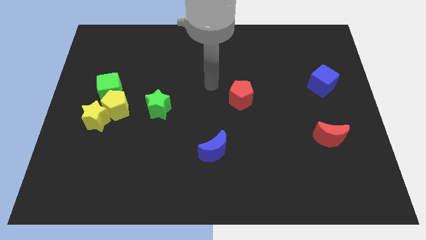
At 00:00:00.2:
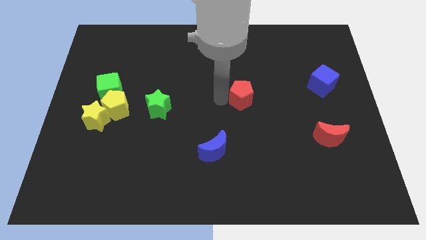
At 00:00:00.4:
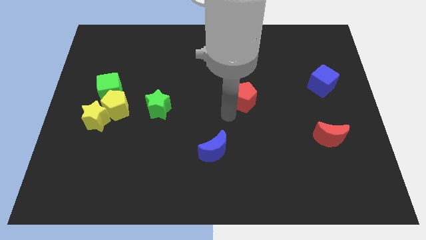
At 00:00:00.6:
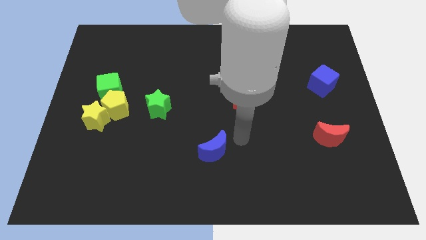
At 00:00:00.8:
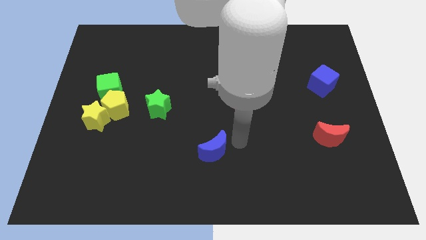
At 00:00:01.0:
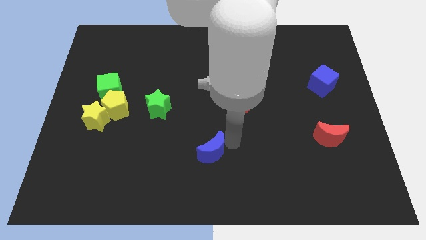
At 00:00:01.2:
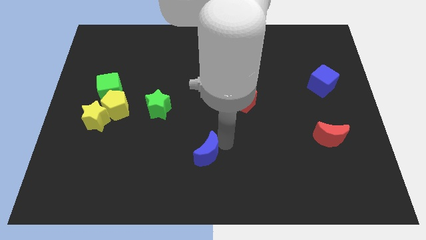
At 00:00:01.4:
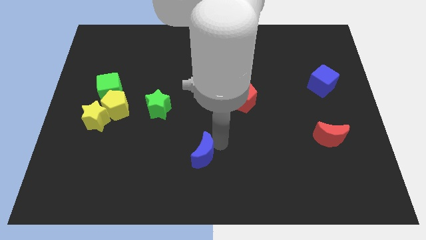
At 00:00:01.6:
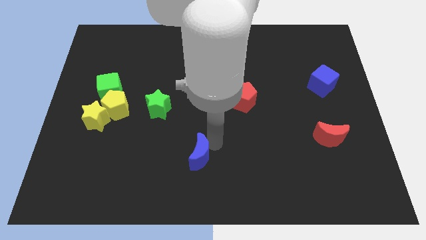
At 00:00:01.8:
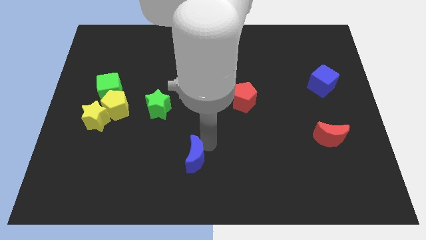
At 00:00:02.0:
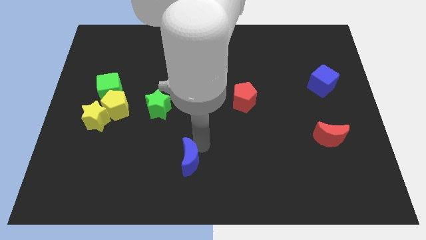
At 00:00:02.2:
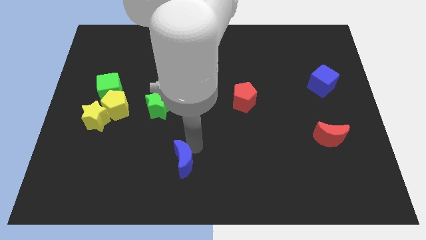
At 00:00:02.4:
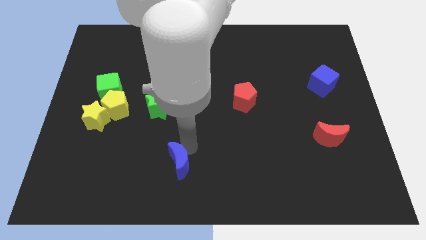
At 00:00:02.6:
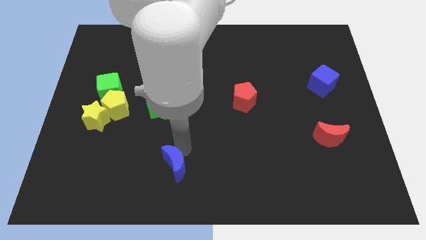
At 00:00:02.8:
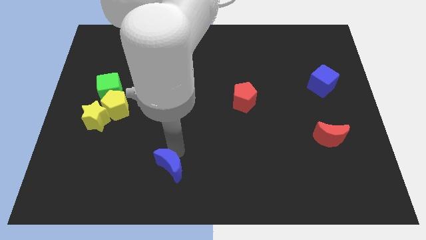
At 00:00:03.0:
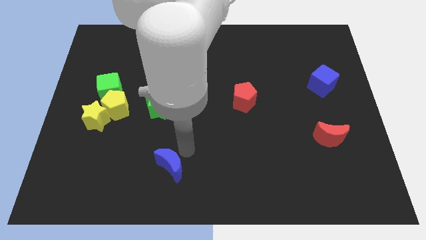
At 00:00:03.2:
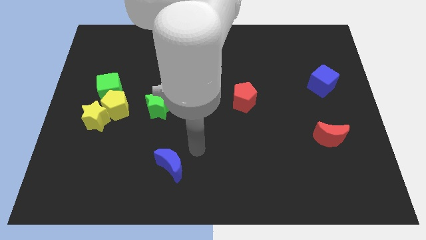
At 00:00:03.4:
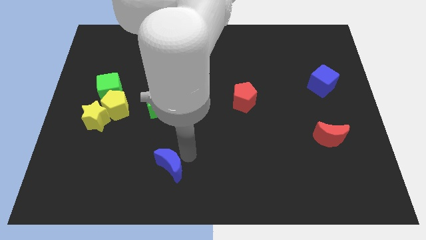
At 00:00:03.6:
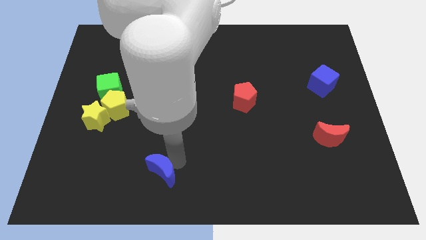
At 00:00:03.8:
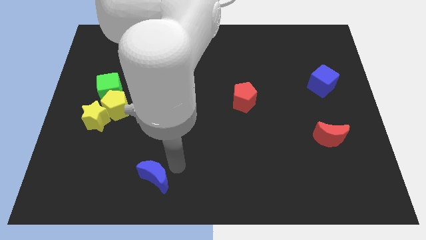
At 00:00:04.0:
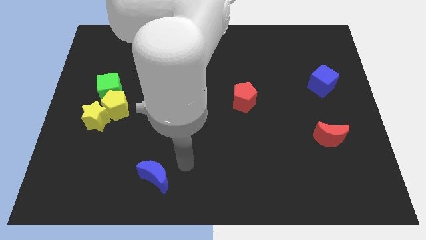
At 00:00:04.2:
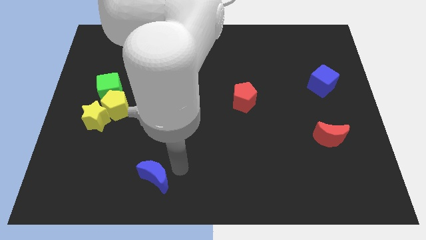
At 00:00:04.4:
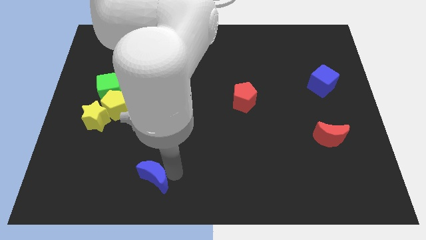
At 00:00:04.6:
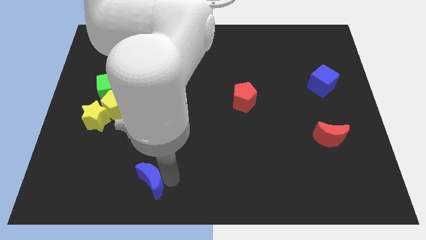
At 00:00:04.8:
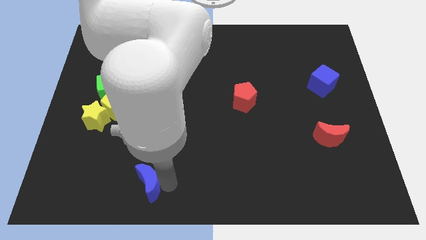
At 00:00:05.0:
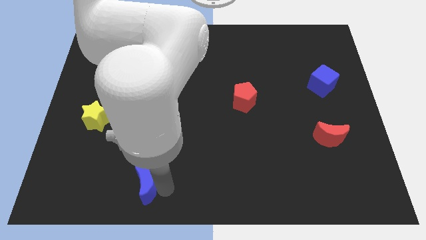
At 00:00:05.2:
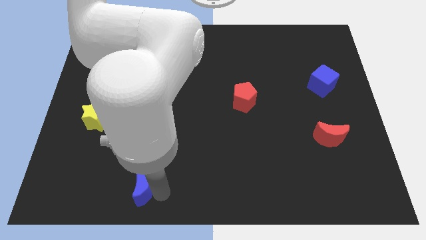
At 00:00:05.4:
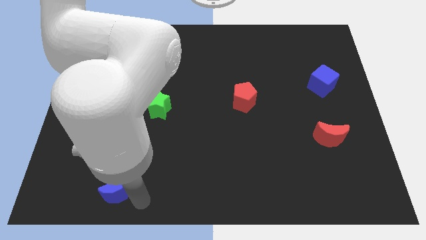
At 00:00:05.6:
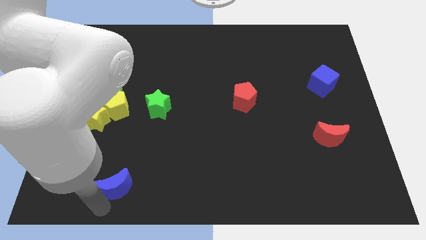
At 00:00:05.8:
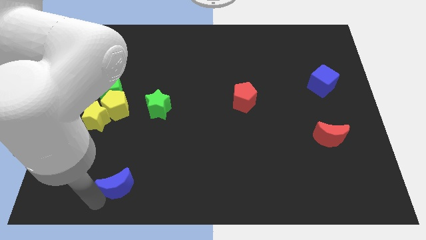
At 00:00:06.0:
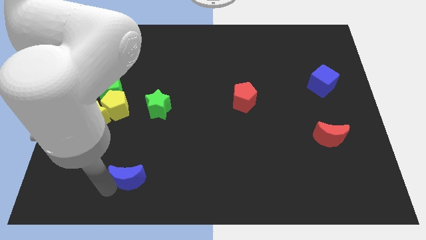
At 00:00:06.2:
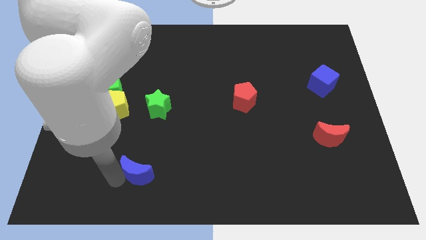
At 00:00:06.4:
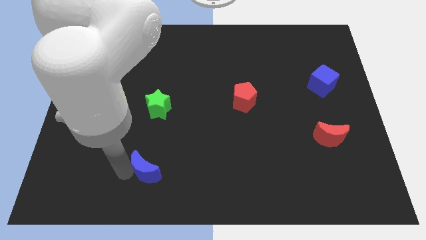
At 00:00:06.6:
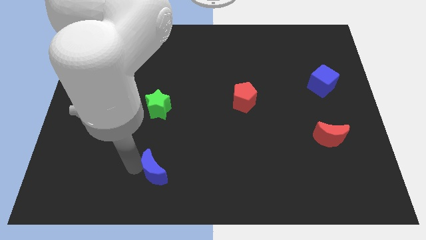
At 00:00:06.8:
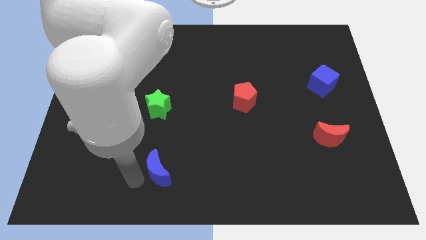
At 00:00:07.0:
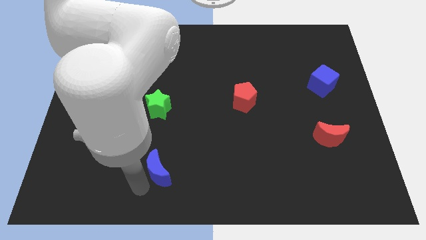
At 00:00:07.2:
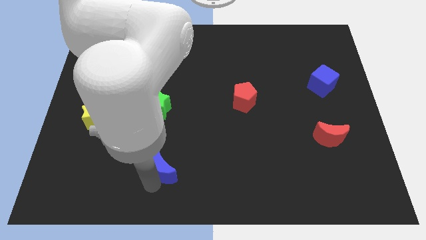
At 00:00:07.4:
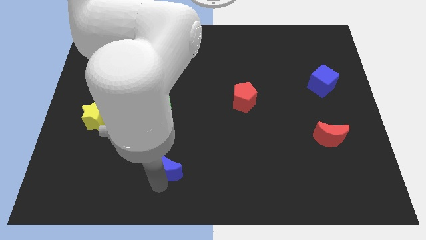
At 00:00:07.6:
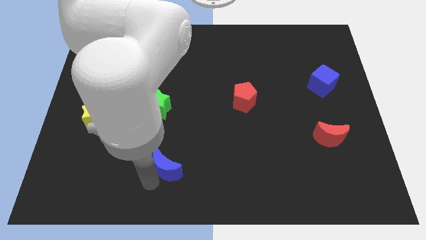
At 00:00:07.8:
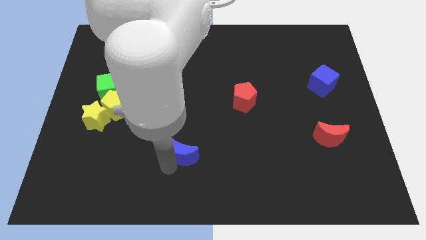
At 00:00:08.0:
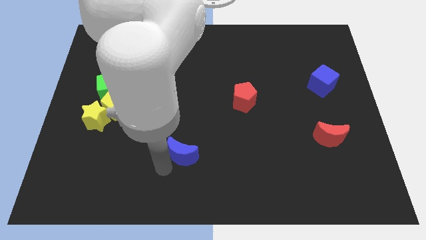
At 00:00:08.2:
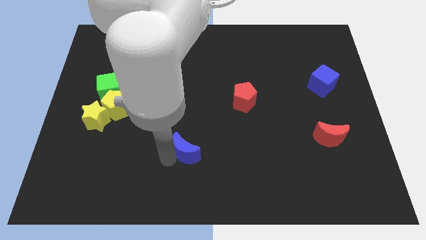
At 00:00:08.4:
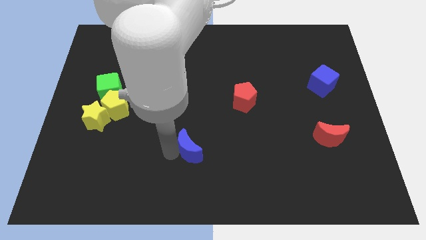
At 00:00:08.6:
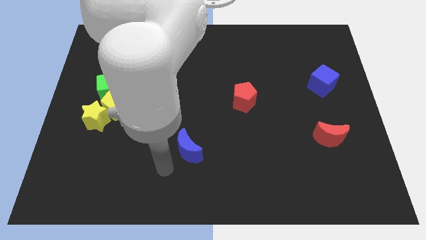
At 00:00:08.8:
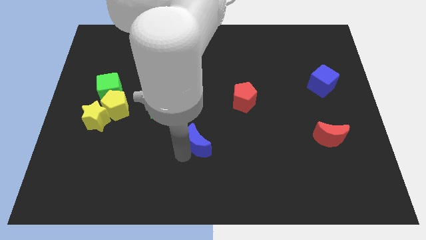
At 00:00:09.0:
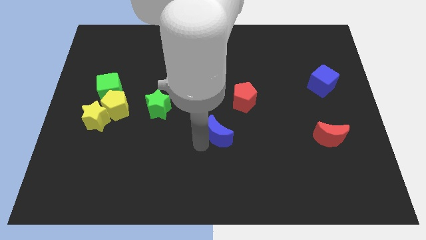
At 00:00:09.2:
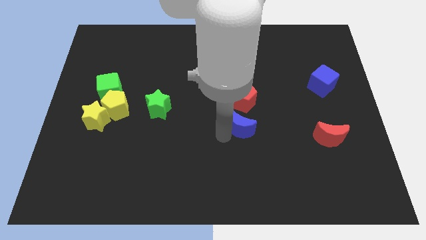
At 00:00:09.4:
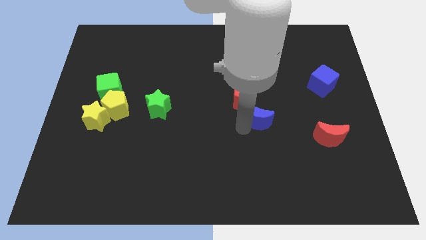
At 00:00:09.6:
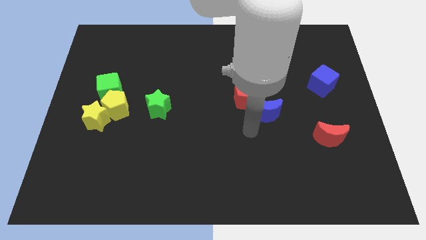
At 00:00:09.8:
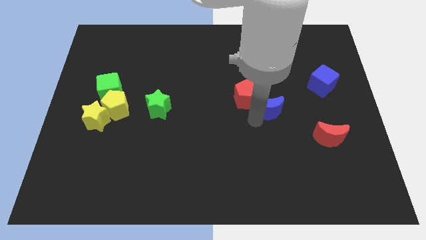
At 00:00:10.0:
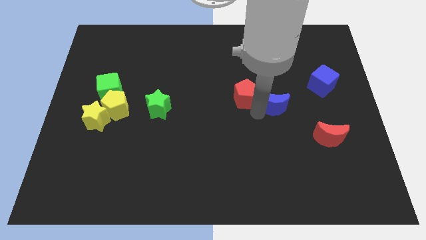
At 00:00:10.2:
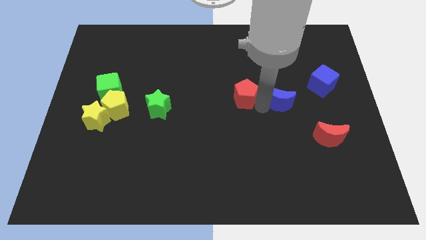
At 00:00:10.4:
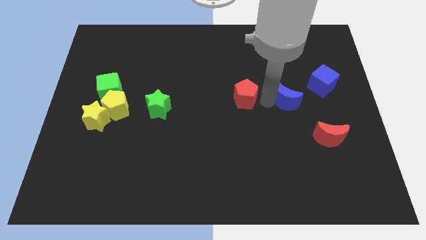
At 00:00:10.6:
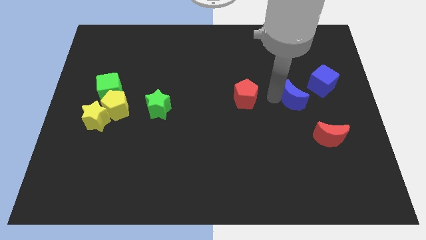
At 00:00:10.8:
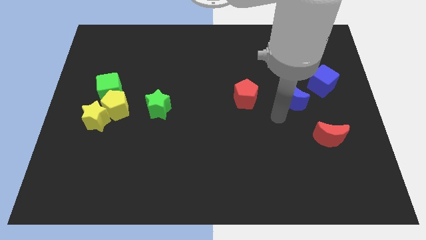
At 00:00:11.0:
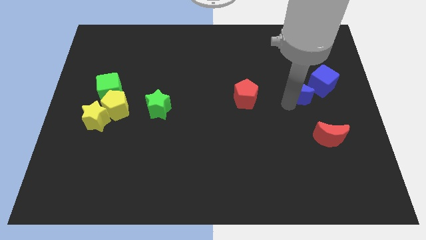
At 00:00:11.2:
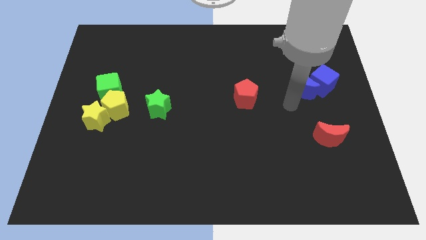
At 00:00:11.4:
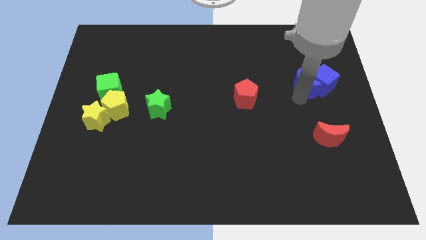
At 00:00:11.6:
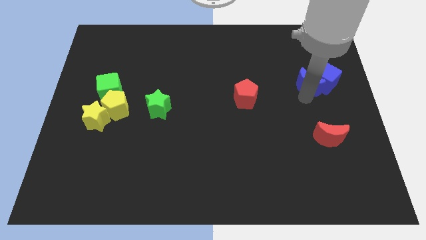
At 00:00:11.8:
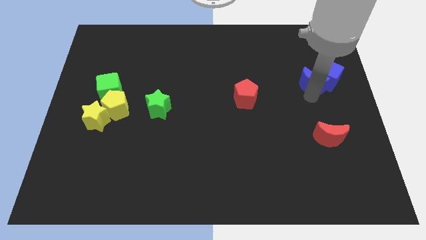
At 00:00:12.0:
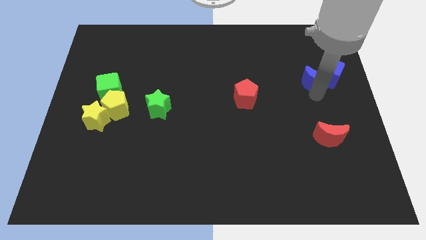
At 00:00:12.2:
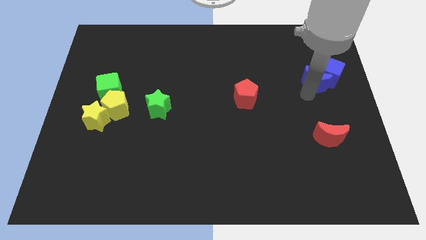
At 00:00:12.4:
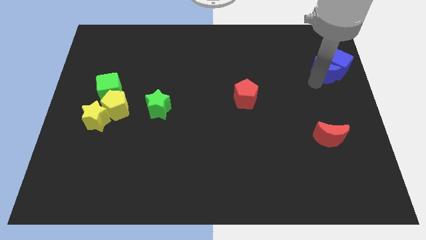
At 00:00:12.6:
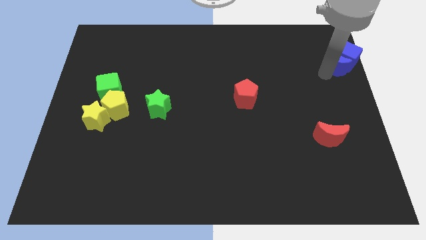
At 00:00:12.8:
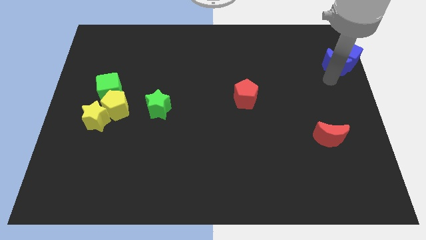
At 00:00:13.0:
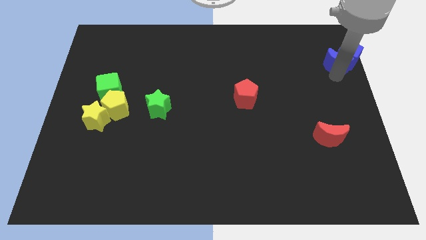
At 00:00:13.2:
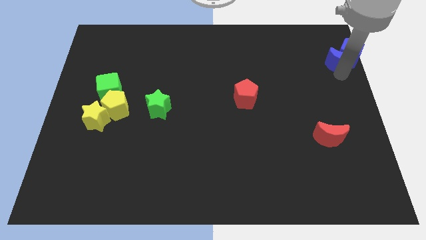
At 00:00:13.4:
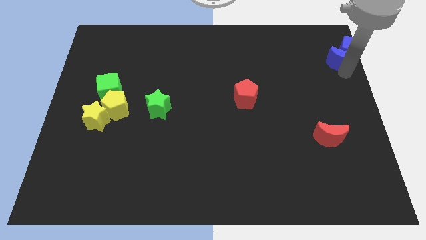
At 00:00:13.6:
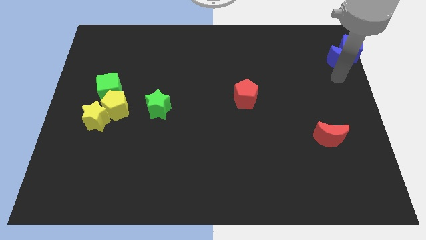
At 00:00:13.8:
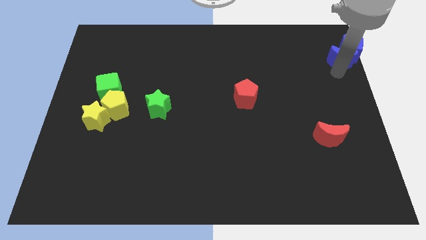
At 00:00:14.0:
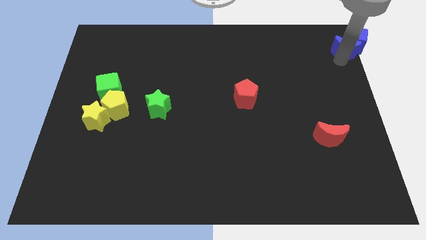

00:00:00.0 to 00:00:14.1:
put the blue moon to the top right of the board
